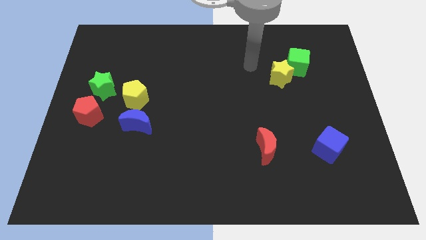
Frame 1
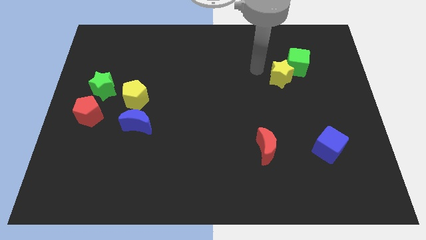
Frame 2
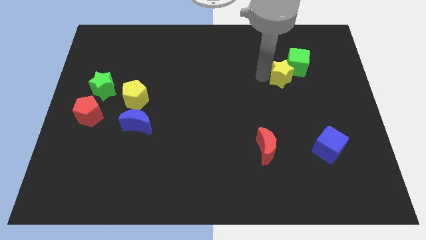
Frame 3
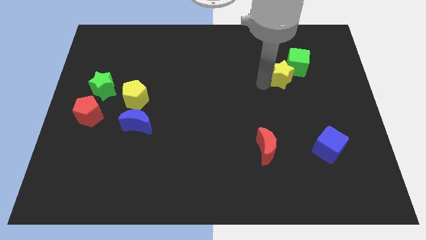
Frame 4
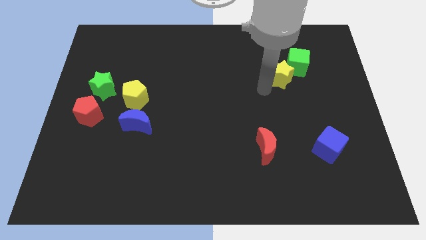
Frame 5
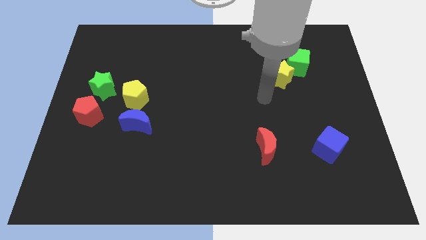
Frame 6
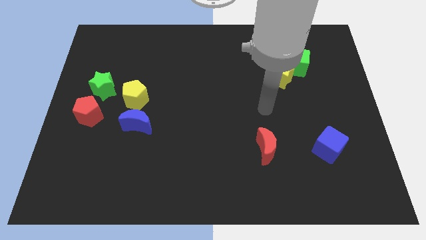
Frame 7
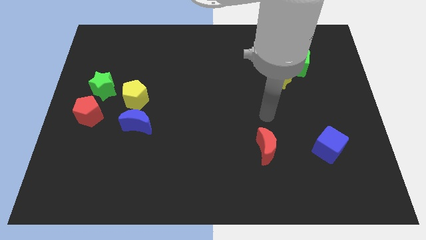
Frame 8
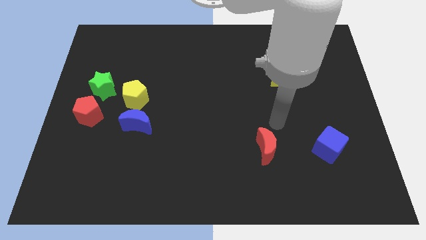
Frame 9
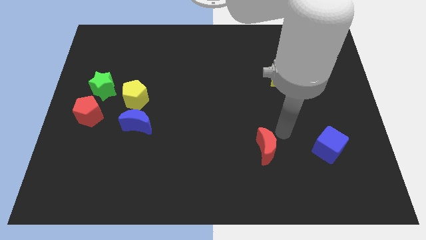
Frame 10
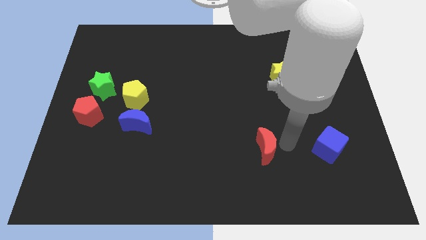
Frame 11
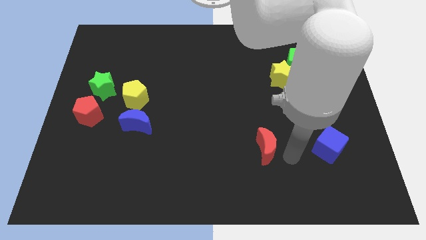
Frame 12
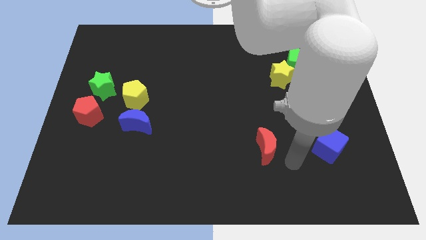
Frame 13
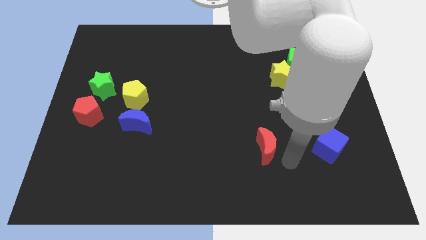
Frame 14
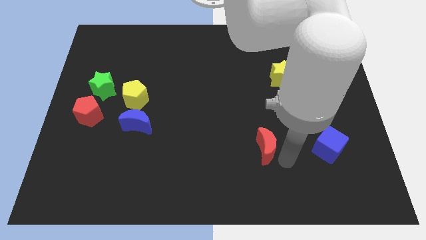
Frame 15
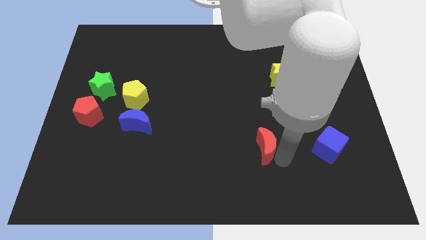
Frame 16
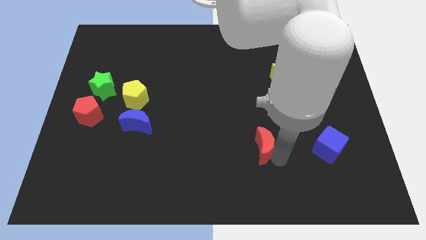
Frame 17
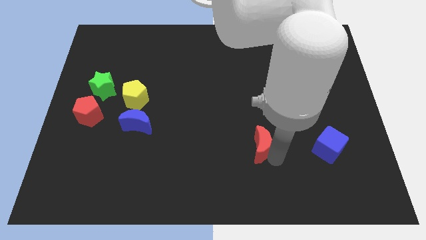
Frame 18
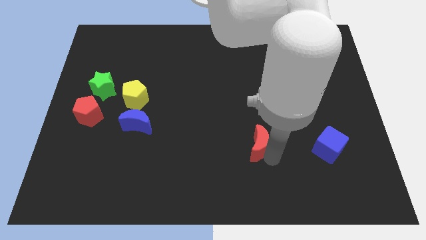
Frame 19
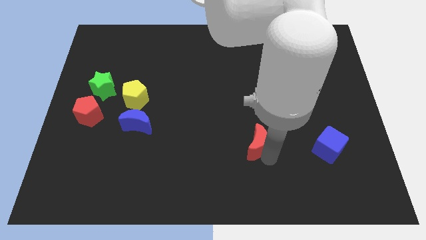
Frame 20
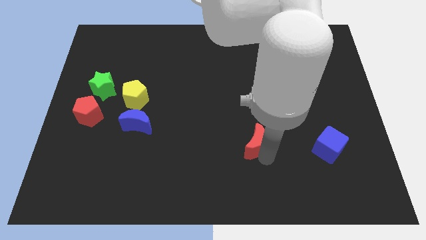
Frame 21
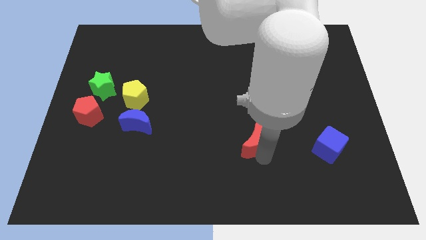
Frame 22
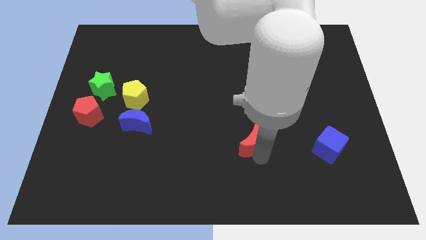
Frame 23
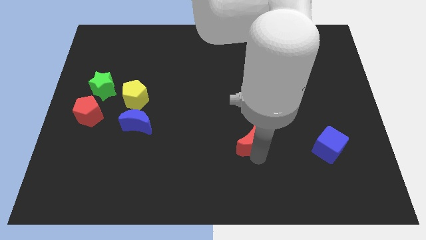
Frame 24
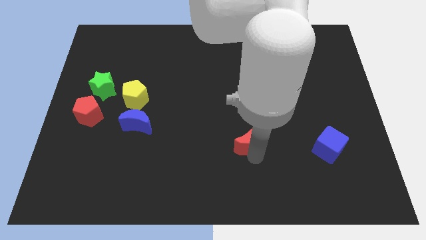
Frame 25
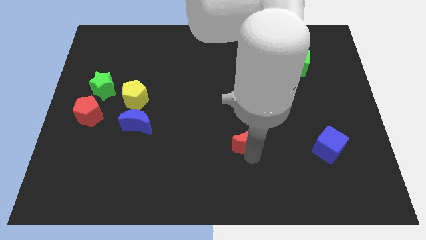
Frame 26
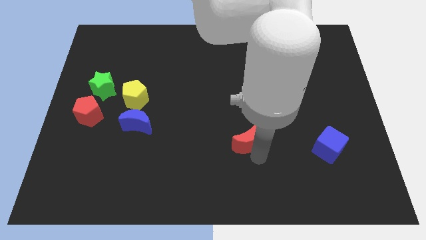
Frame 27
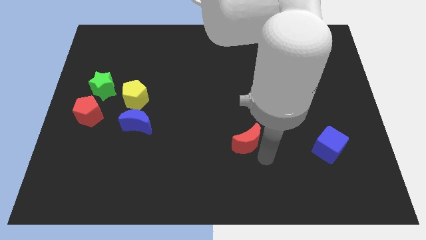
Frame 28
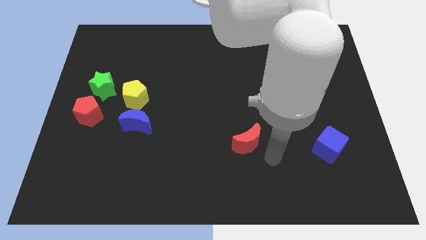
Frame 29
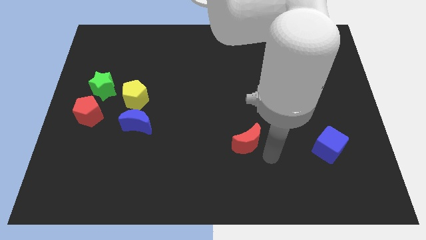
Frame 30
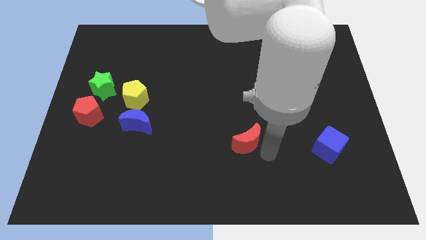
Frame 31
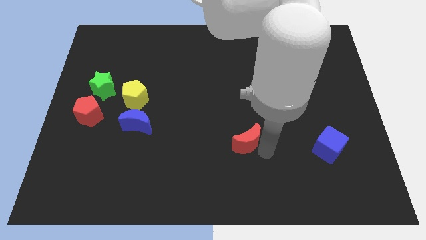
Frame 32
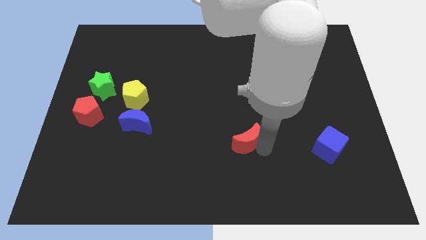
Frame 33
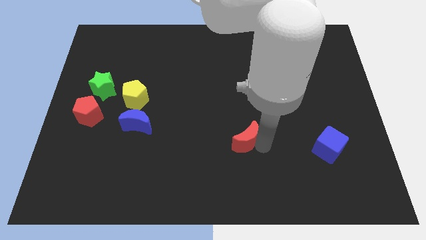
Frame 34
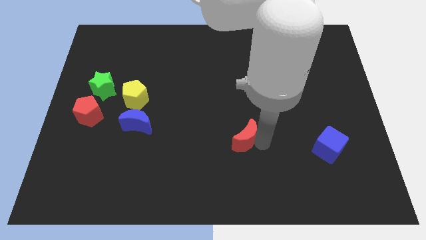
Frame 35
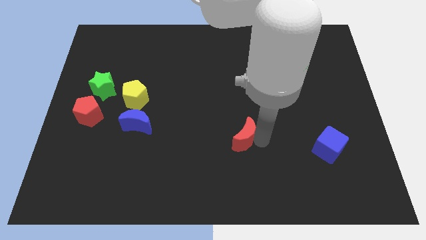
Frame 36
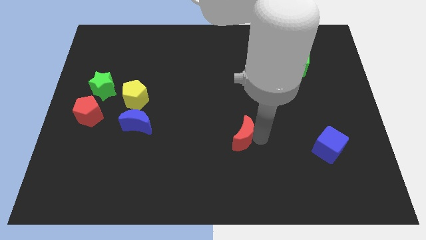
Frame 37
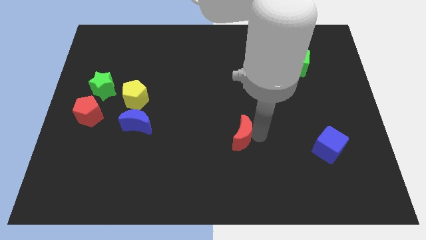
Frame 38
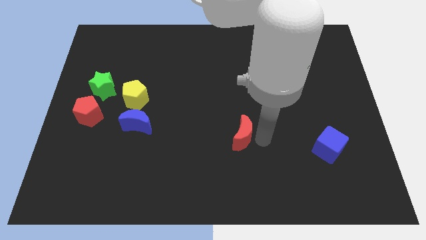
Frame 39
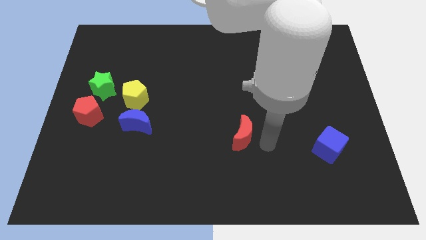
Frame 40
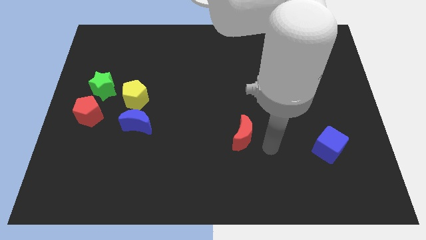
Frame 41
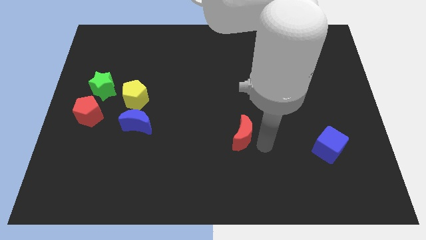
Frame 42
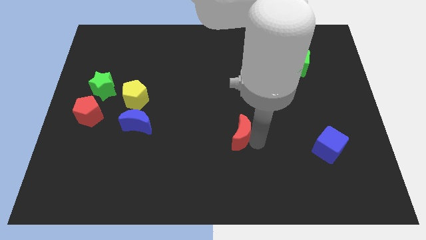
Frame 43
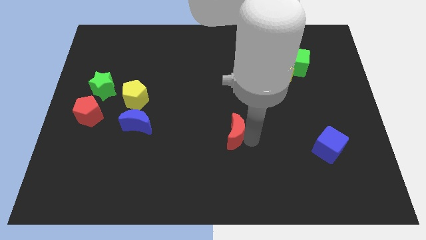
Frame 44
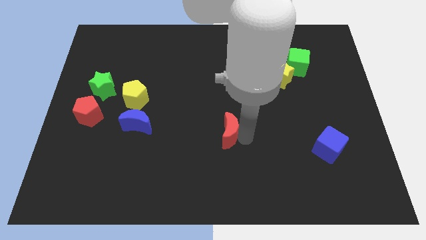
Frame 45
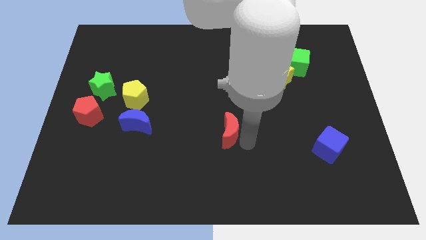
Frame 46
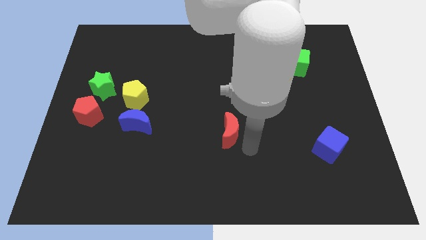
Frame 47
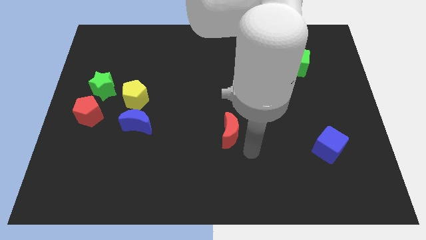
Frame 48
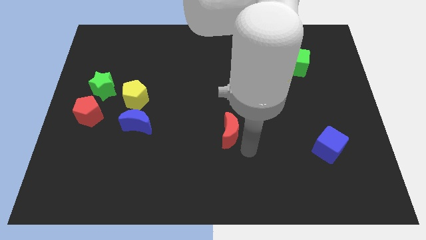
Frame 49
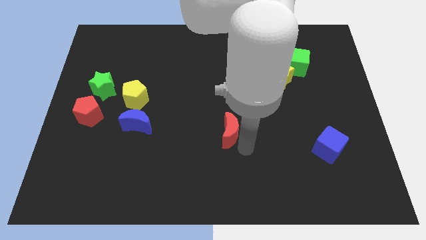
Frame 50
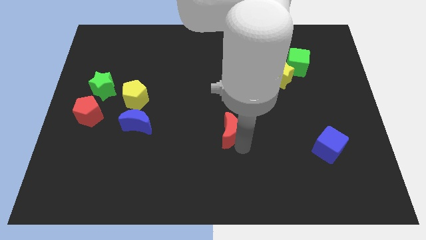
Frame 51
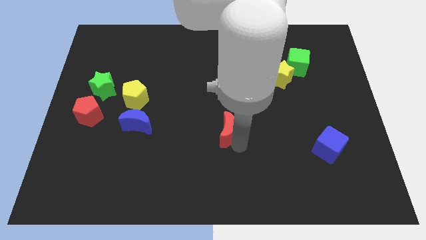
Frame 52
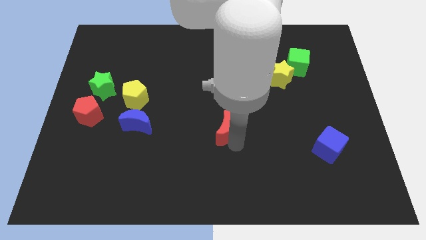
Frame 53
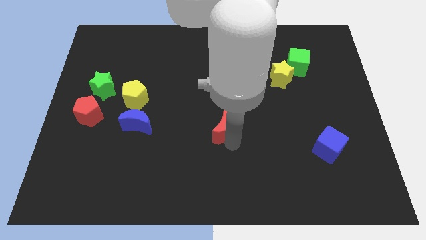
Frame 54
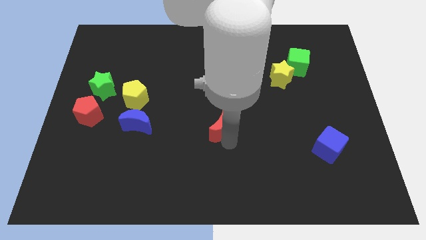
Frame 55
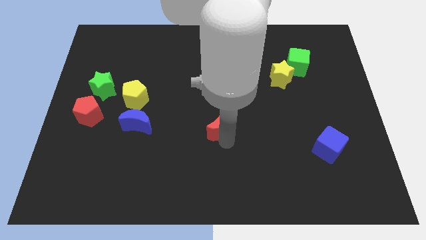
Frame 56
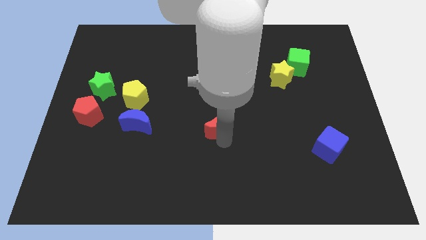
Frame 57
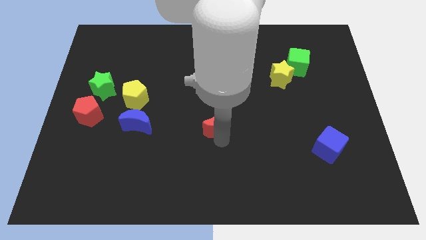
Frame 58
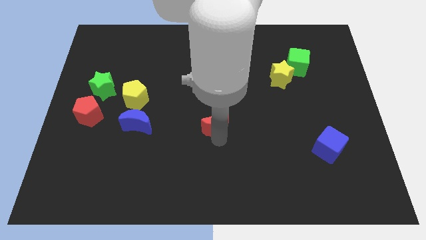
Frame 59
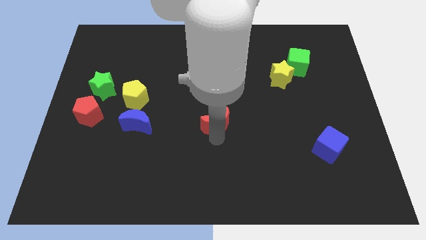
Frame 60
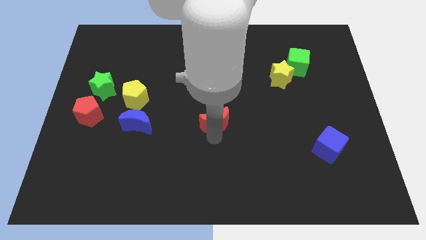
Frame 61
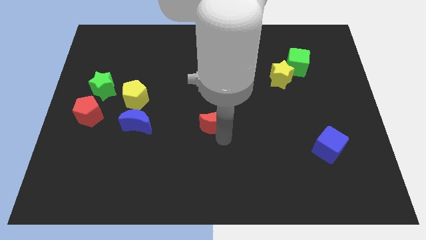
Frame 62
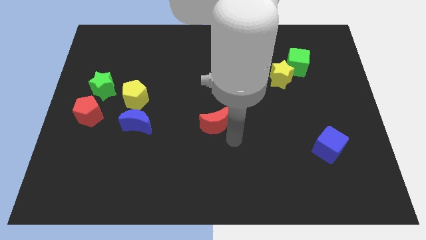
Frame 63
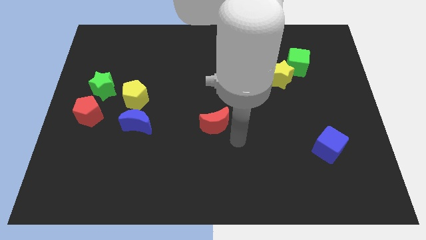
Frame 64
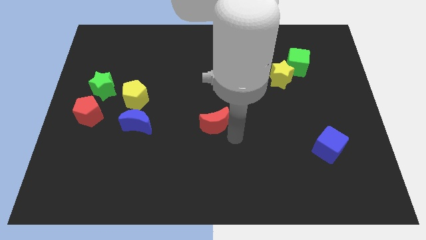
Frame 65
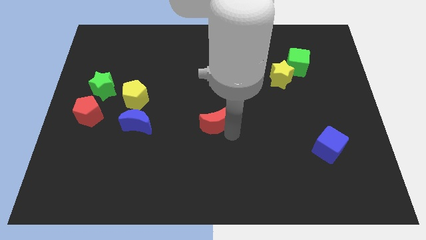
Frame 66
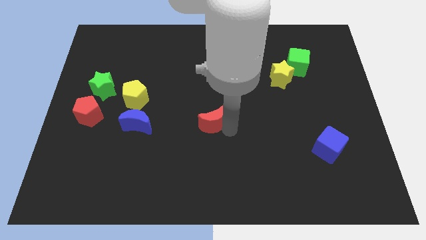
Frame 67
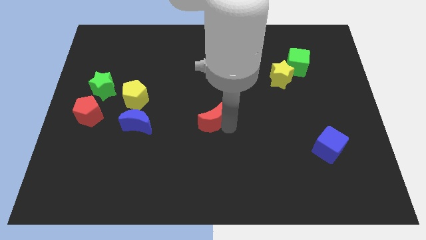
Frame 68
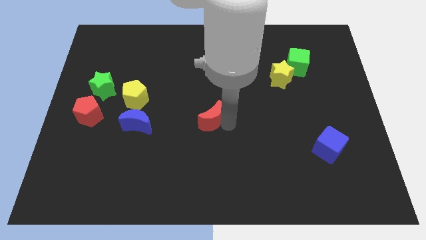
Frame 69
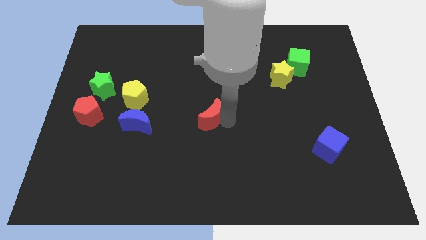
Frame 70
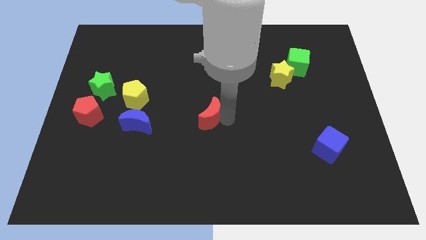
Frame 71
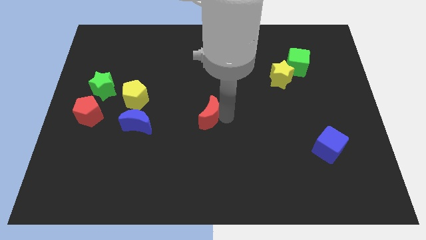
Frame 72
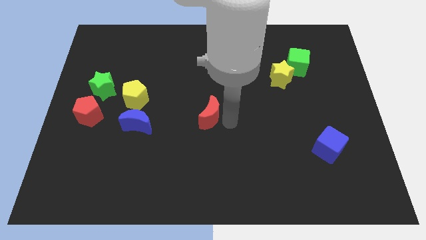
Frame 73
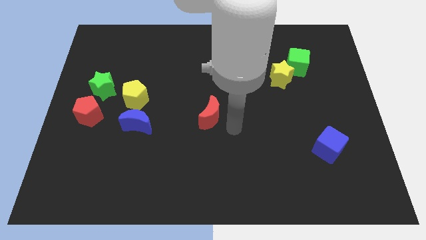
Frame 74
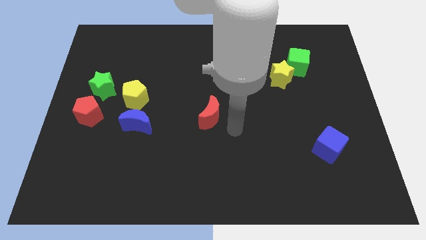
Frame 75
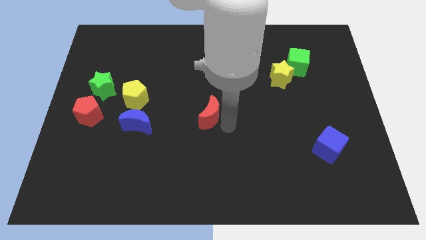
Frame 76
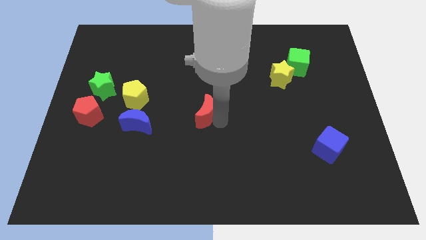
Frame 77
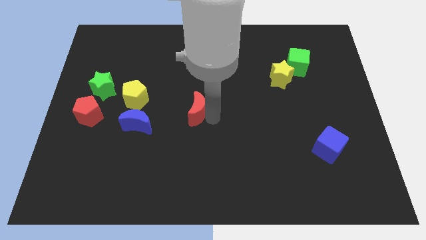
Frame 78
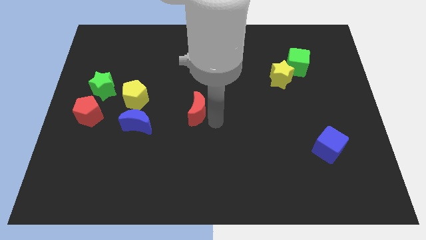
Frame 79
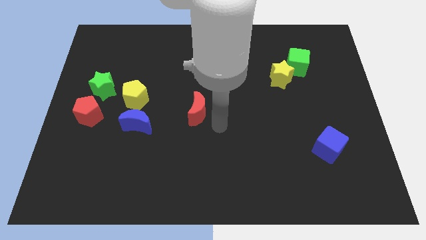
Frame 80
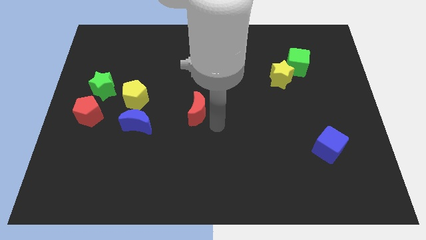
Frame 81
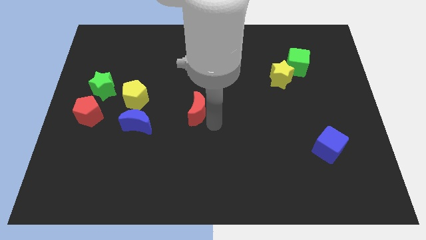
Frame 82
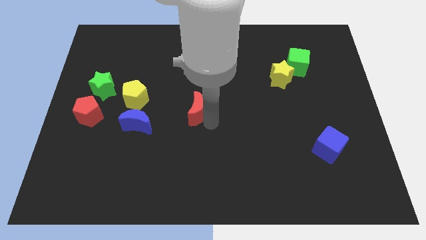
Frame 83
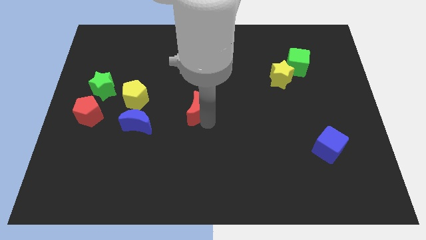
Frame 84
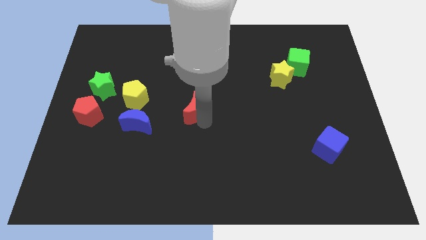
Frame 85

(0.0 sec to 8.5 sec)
move the red moon just right of the yellow pentagon
